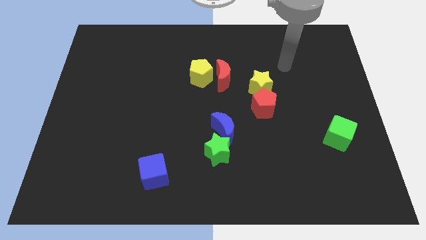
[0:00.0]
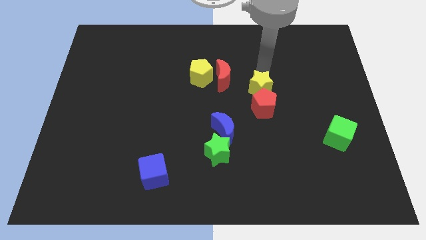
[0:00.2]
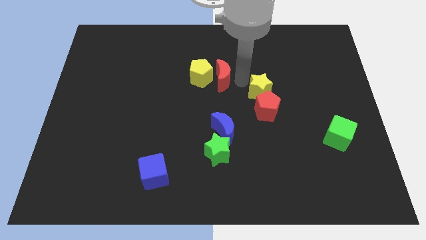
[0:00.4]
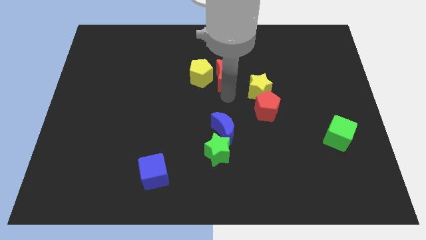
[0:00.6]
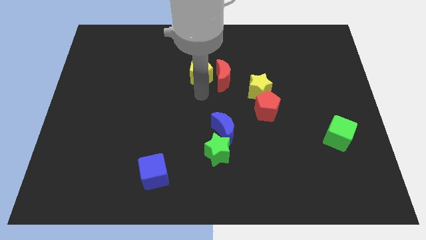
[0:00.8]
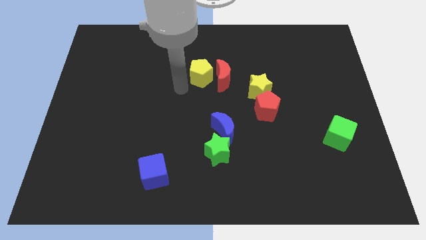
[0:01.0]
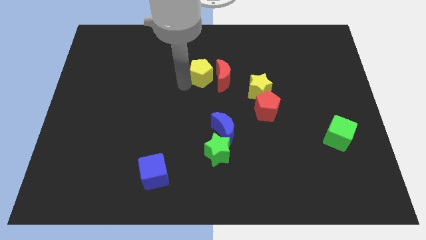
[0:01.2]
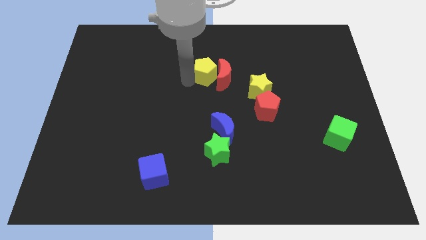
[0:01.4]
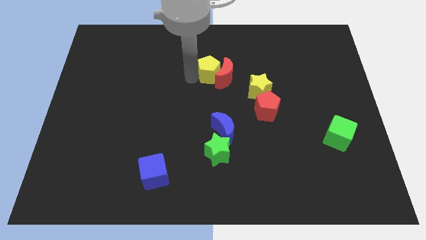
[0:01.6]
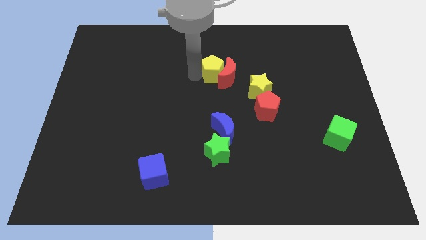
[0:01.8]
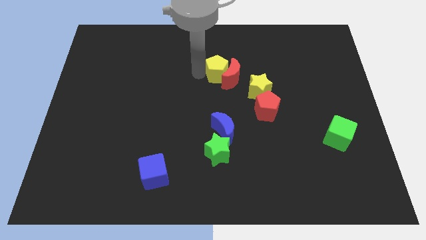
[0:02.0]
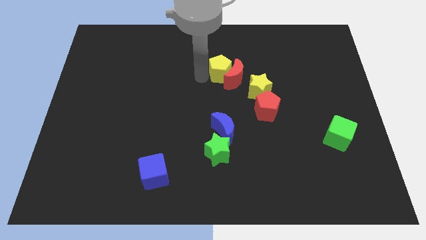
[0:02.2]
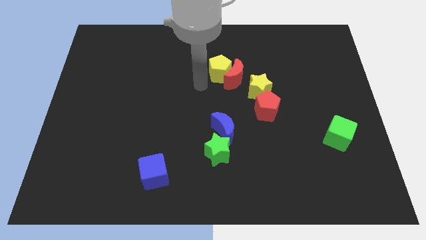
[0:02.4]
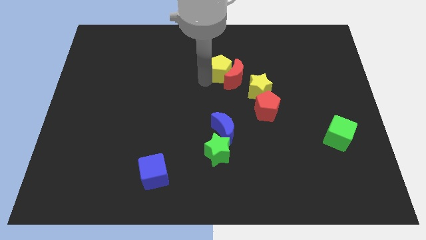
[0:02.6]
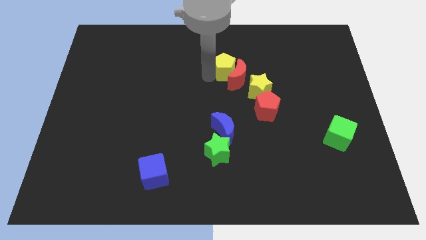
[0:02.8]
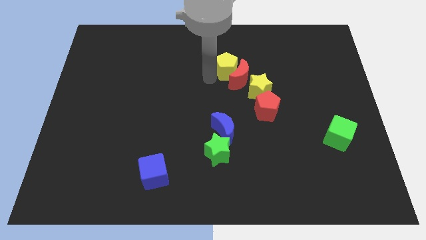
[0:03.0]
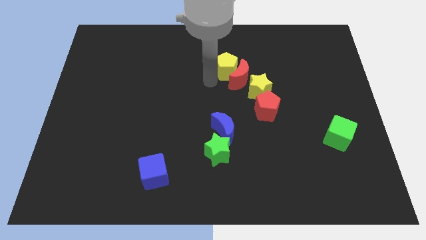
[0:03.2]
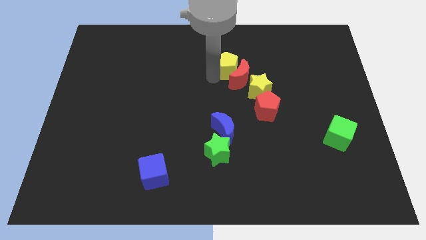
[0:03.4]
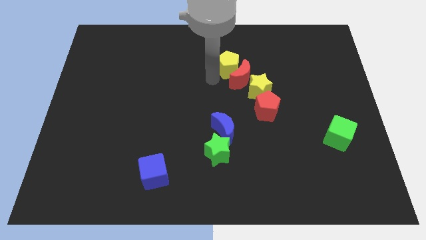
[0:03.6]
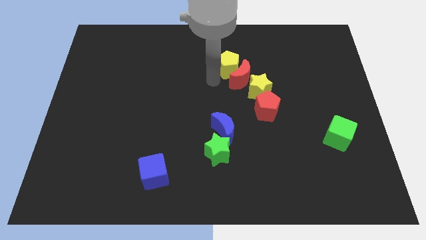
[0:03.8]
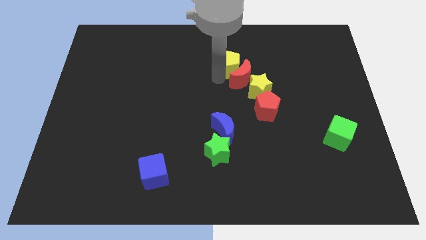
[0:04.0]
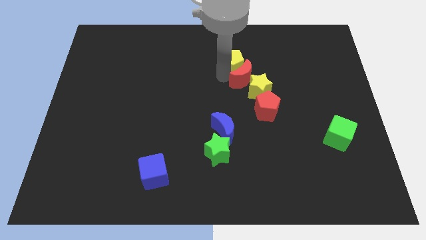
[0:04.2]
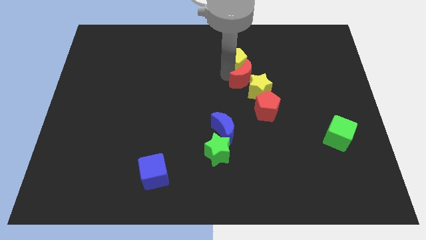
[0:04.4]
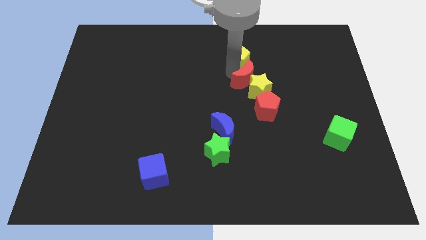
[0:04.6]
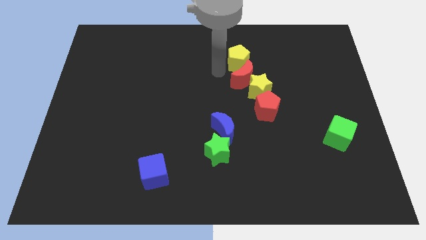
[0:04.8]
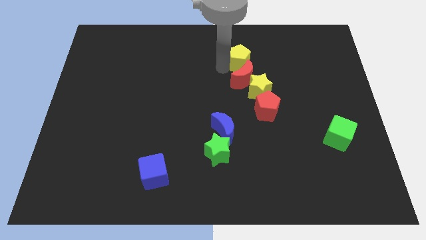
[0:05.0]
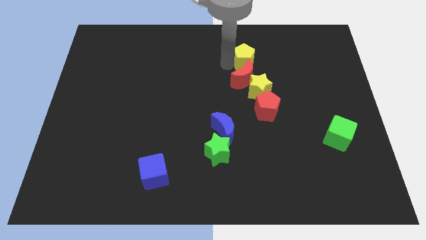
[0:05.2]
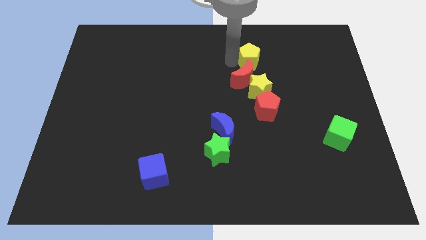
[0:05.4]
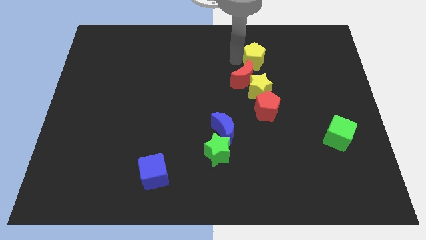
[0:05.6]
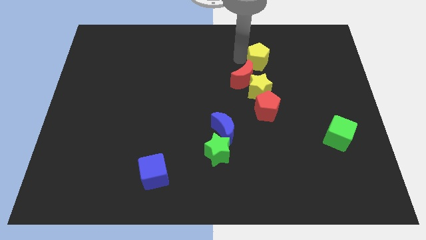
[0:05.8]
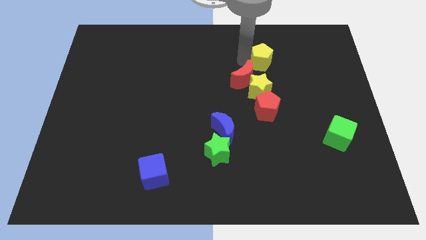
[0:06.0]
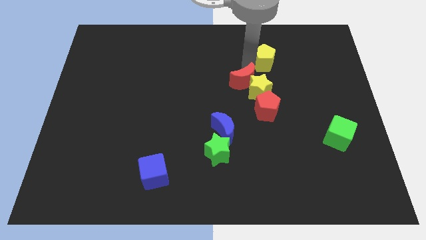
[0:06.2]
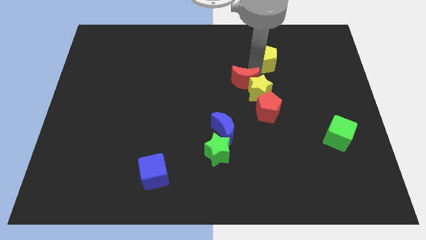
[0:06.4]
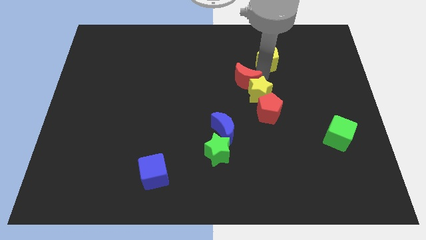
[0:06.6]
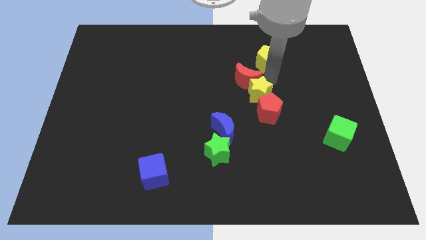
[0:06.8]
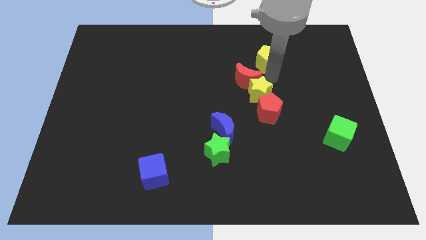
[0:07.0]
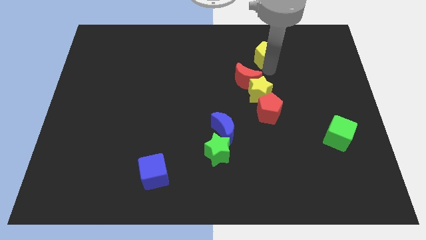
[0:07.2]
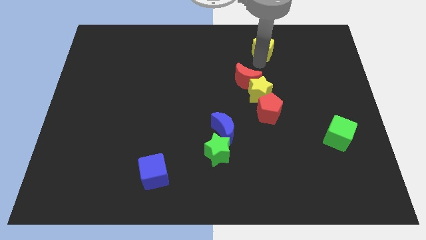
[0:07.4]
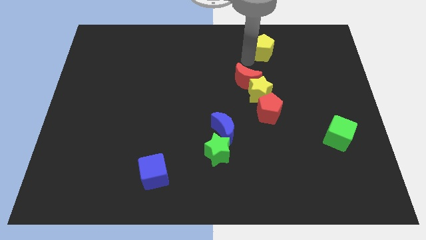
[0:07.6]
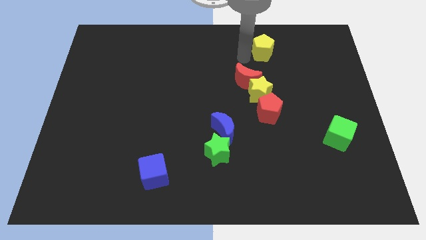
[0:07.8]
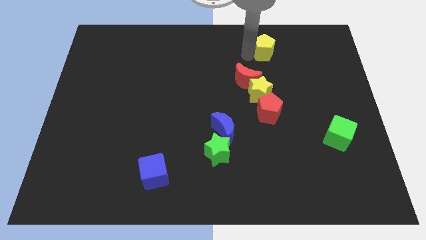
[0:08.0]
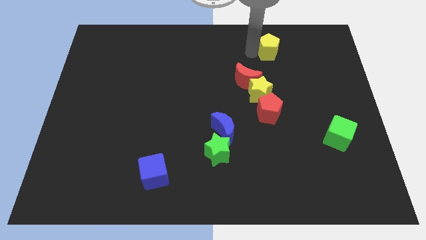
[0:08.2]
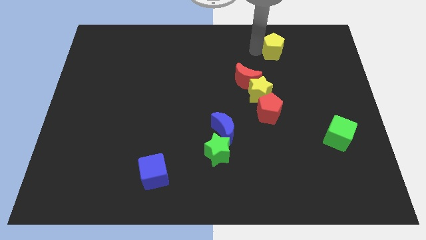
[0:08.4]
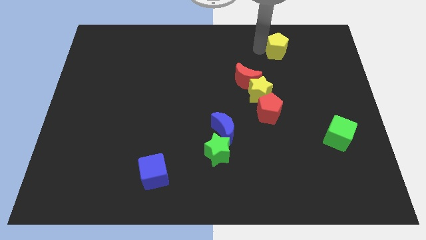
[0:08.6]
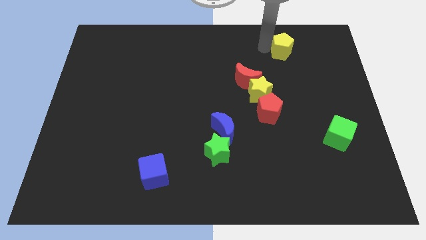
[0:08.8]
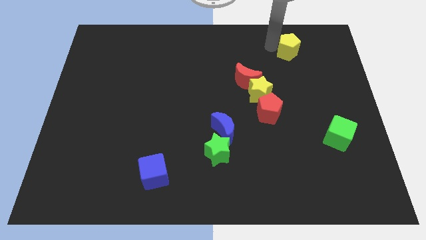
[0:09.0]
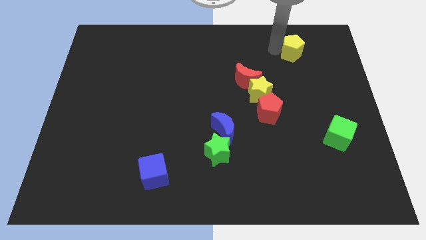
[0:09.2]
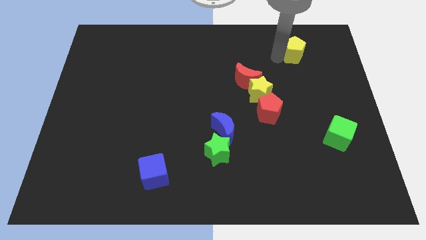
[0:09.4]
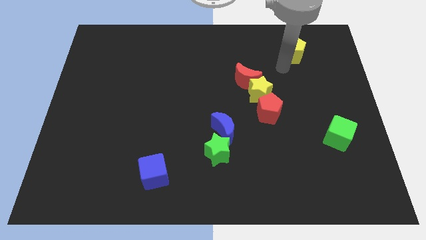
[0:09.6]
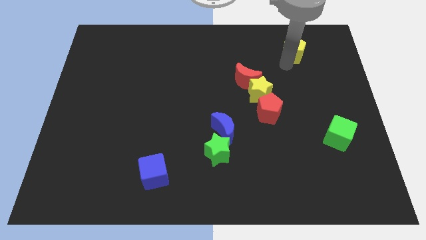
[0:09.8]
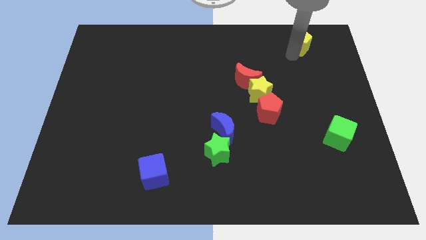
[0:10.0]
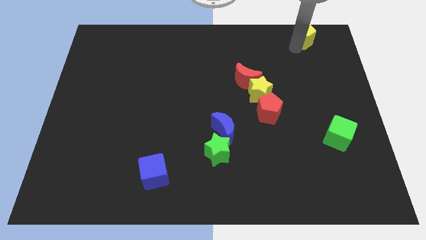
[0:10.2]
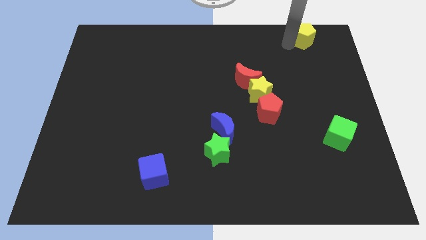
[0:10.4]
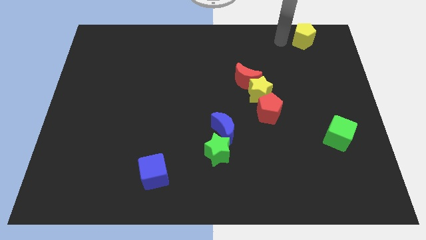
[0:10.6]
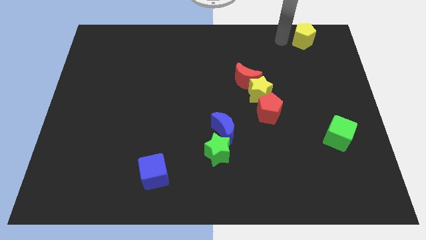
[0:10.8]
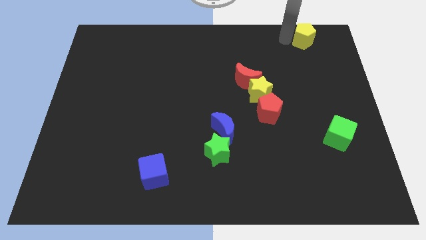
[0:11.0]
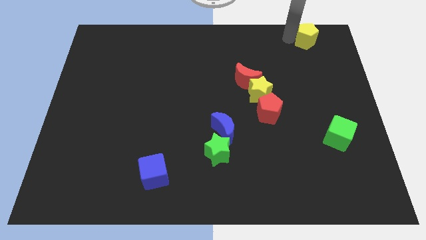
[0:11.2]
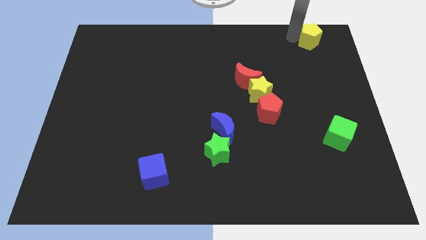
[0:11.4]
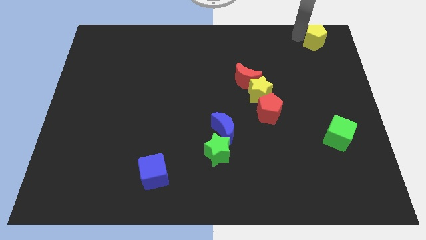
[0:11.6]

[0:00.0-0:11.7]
push the yellow pentagon to the top right of the board
